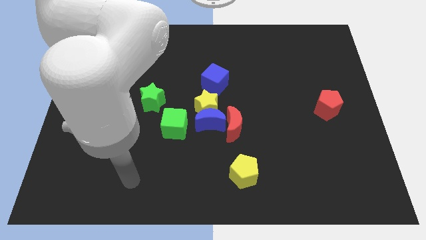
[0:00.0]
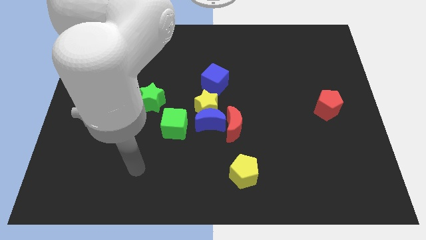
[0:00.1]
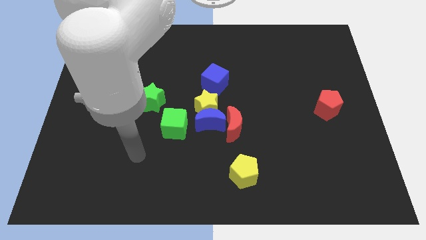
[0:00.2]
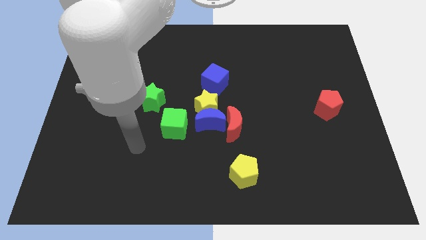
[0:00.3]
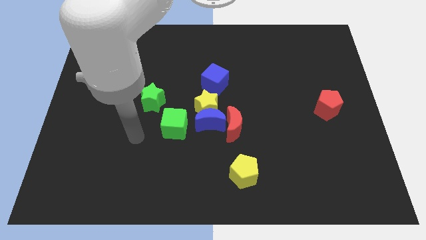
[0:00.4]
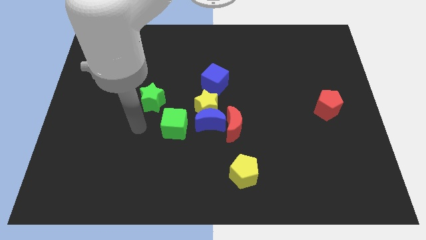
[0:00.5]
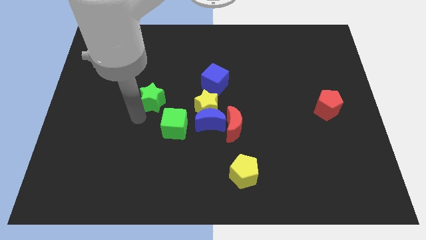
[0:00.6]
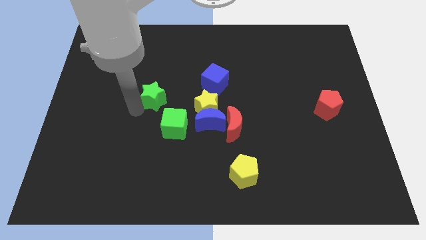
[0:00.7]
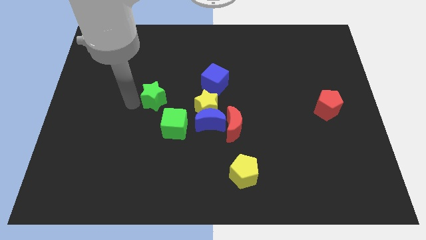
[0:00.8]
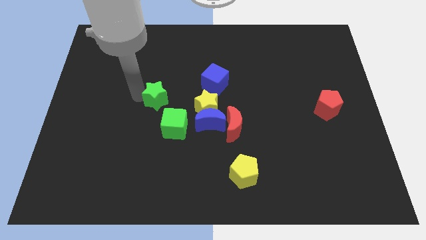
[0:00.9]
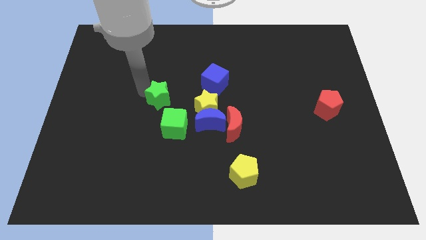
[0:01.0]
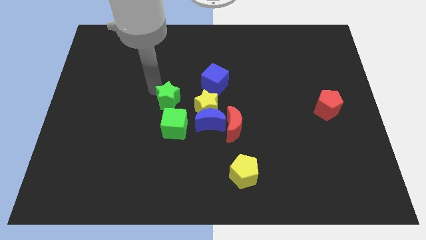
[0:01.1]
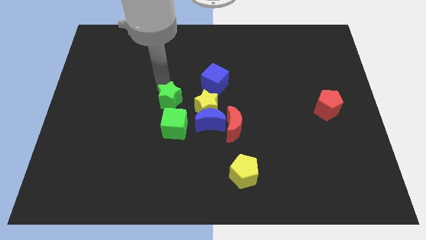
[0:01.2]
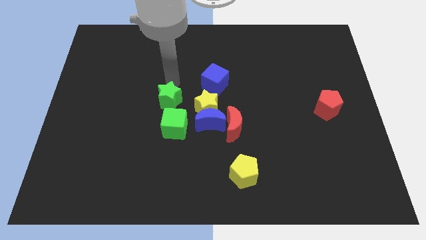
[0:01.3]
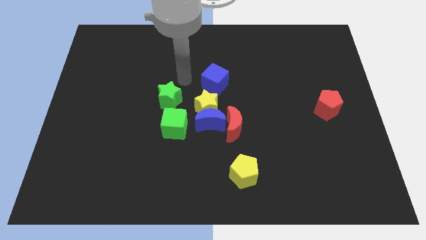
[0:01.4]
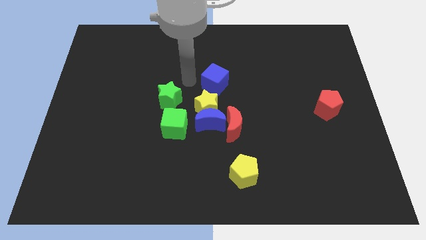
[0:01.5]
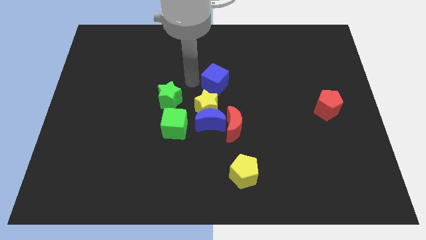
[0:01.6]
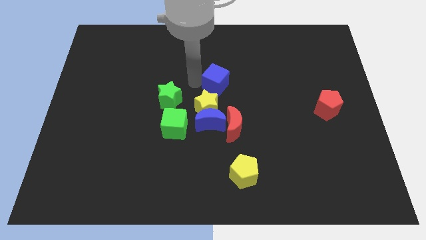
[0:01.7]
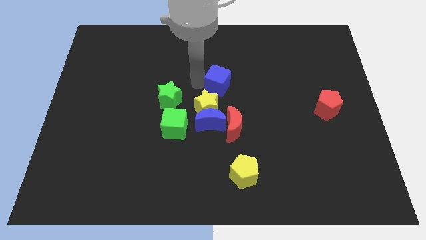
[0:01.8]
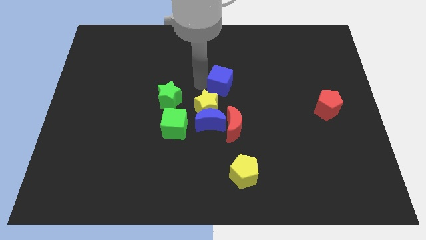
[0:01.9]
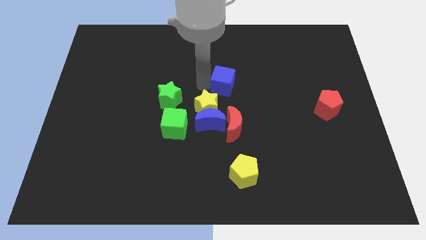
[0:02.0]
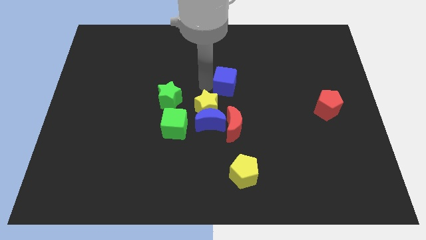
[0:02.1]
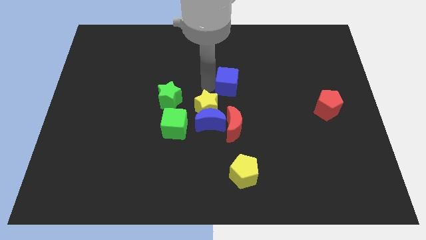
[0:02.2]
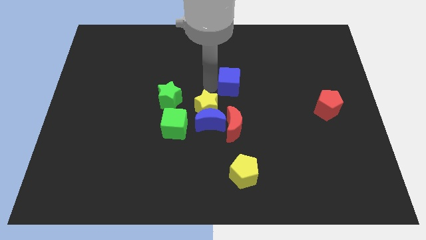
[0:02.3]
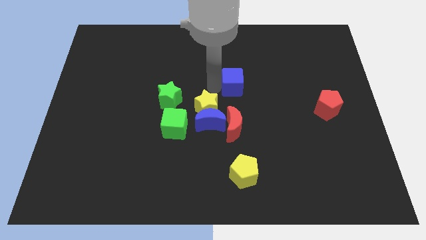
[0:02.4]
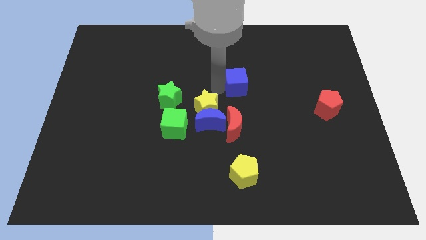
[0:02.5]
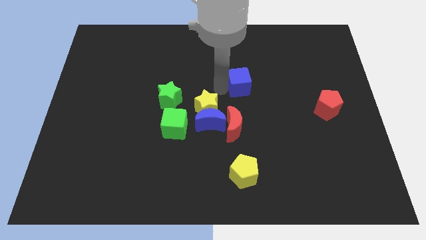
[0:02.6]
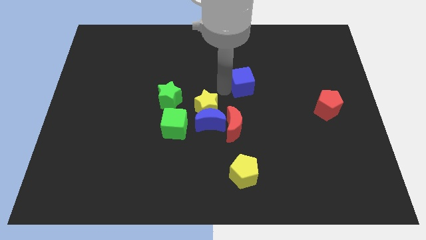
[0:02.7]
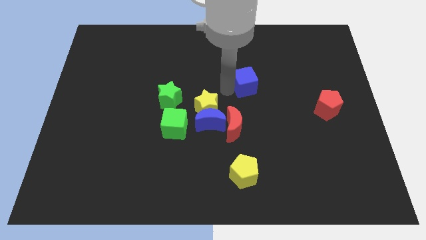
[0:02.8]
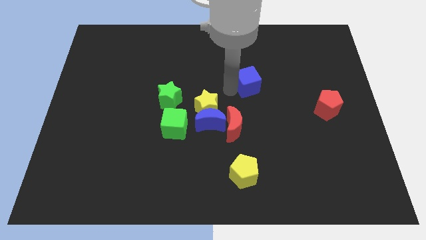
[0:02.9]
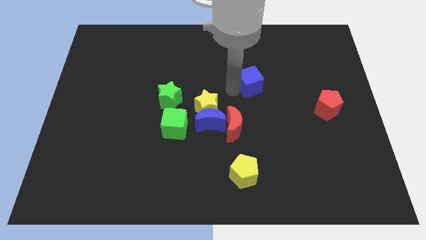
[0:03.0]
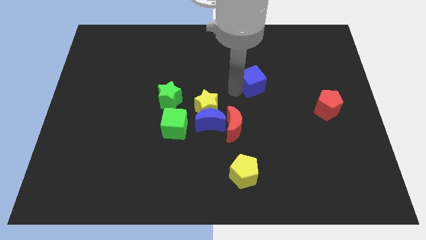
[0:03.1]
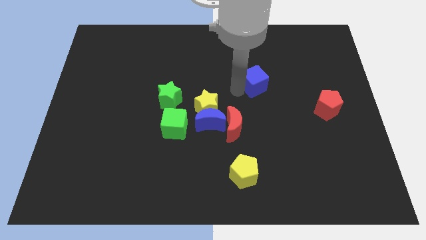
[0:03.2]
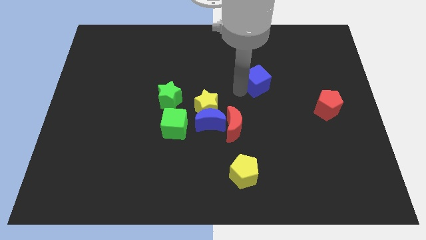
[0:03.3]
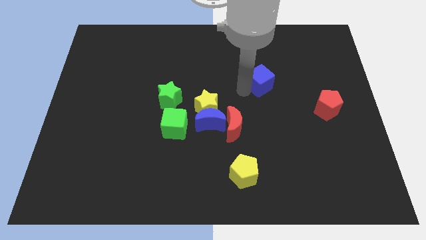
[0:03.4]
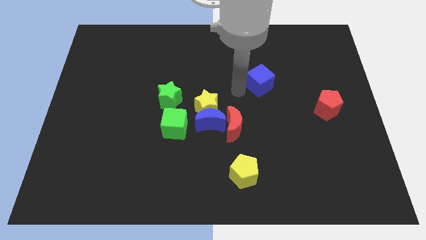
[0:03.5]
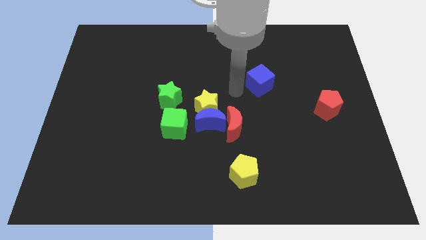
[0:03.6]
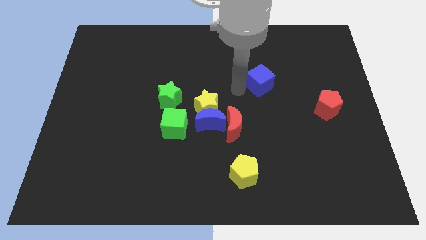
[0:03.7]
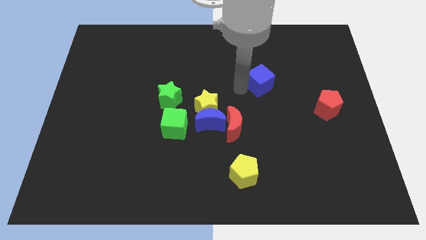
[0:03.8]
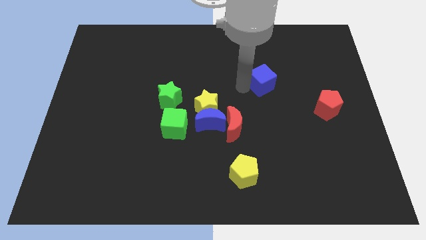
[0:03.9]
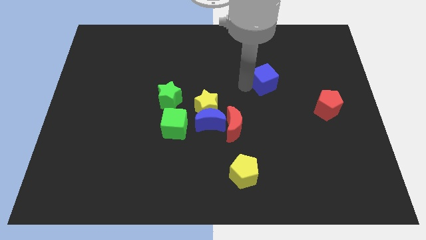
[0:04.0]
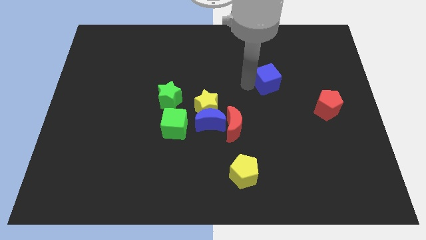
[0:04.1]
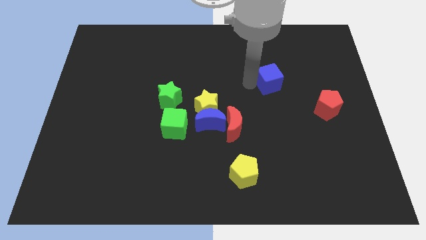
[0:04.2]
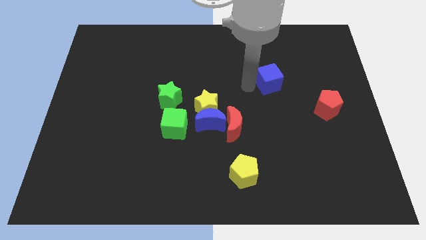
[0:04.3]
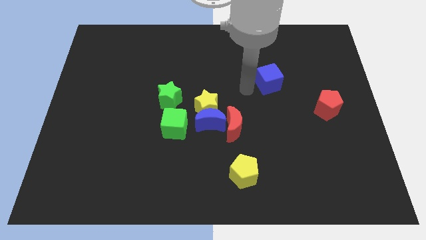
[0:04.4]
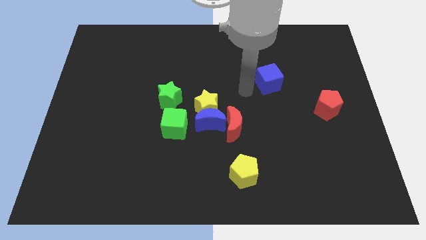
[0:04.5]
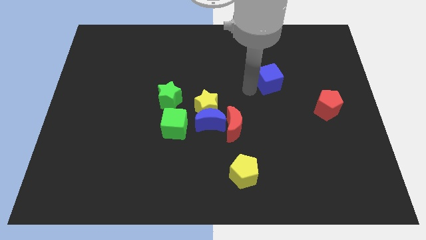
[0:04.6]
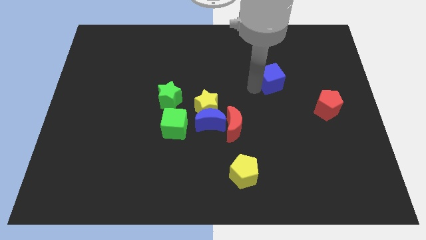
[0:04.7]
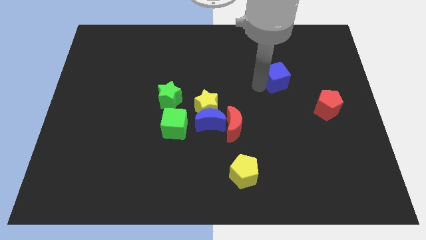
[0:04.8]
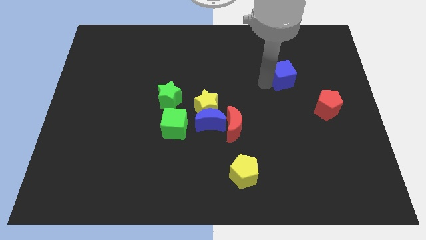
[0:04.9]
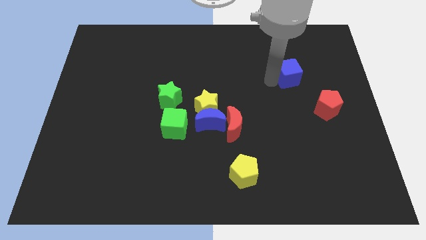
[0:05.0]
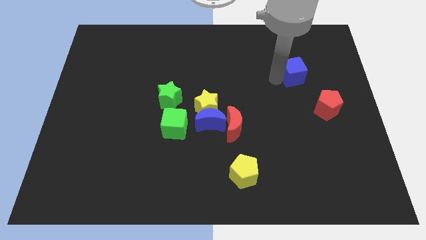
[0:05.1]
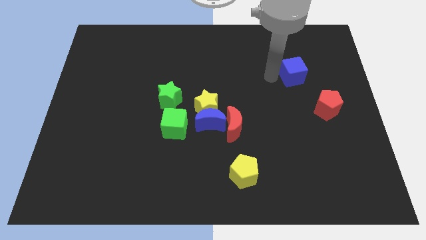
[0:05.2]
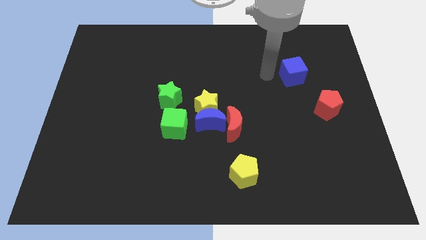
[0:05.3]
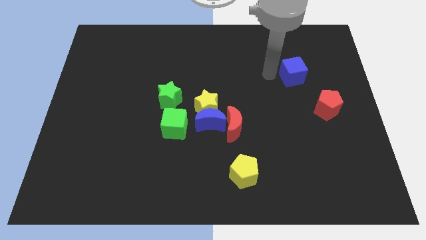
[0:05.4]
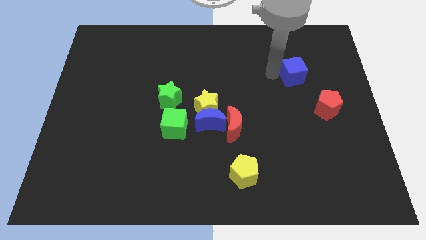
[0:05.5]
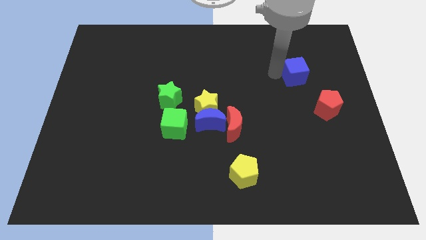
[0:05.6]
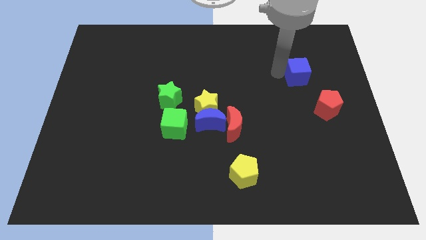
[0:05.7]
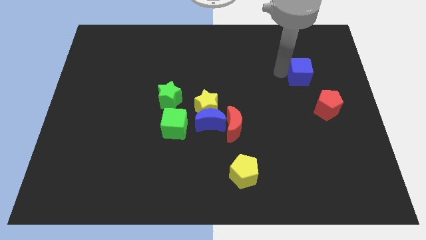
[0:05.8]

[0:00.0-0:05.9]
push the blue cube to the top side of the red pentagon

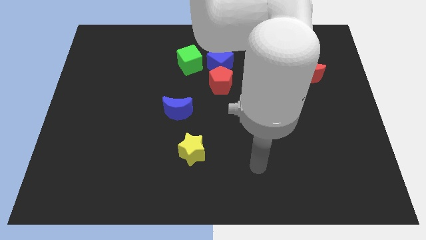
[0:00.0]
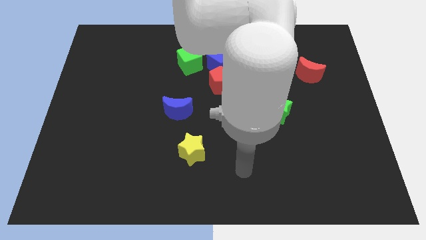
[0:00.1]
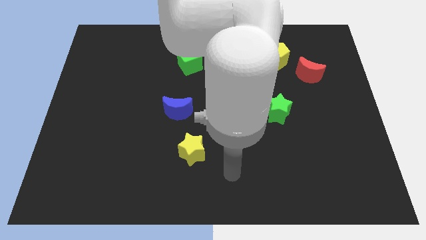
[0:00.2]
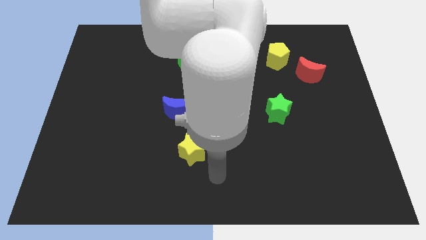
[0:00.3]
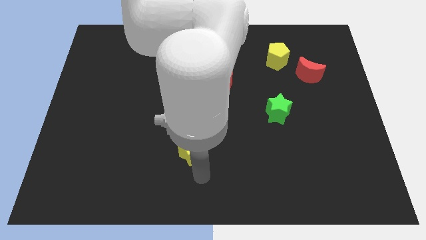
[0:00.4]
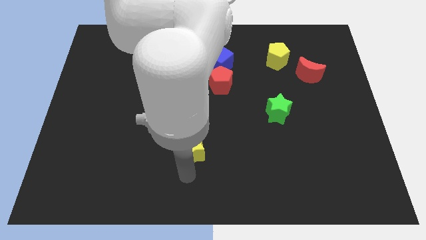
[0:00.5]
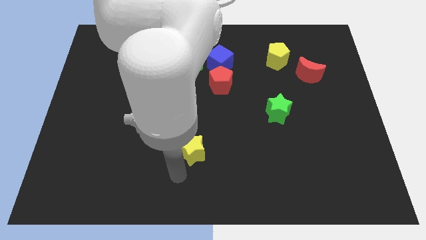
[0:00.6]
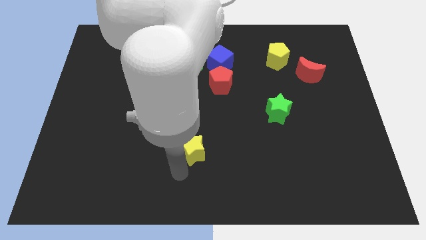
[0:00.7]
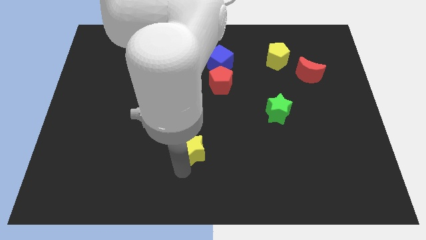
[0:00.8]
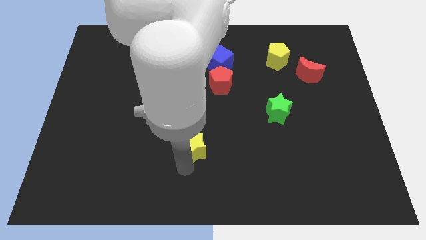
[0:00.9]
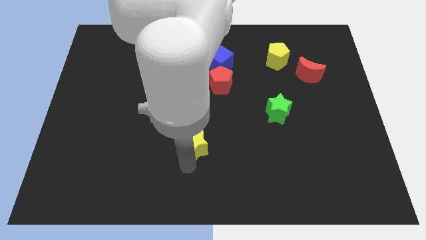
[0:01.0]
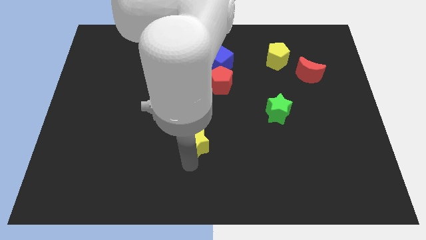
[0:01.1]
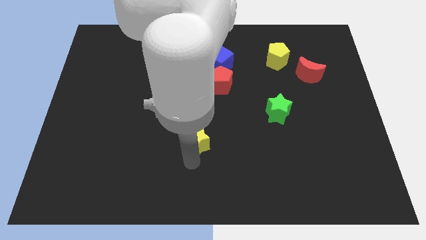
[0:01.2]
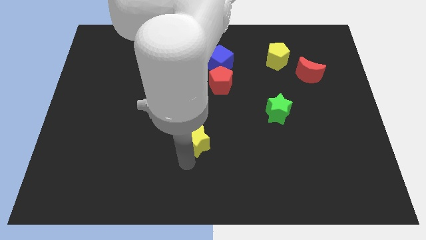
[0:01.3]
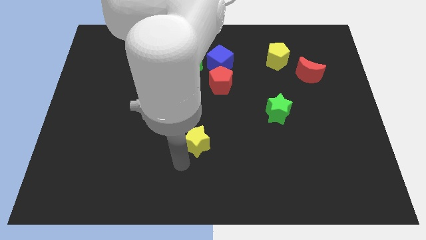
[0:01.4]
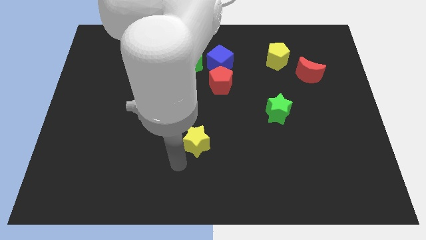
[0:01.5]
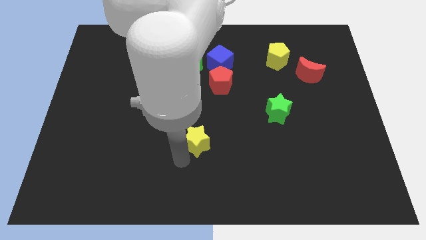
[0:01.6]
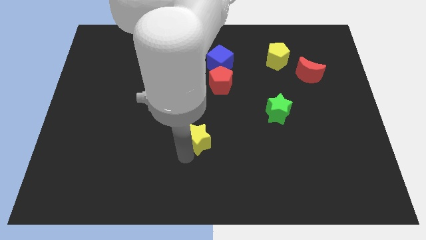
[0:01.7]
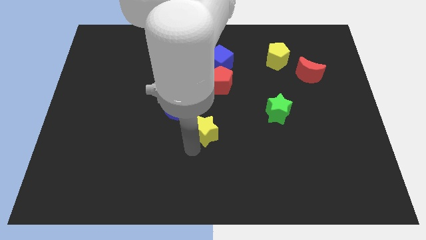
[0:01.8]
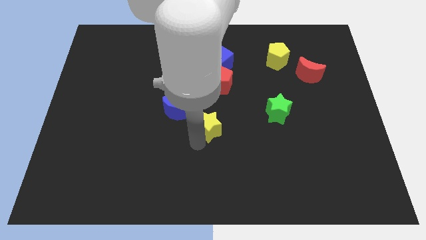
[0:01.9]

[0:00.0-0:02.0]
push the yellow star right of the blue moon
